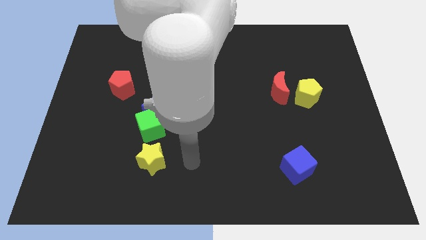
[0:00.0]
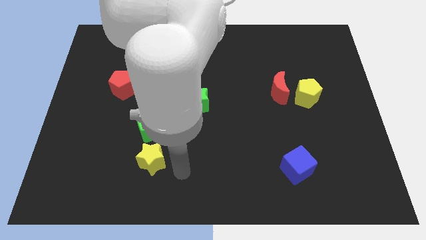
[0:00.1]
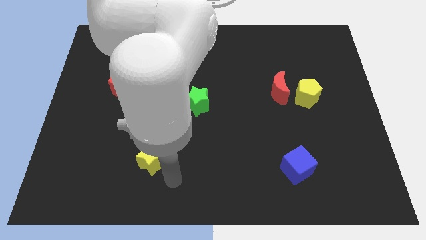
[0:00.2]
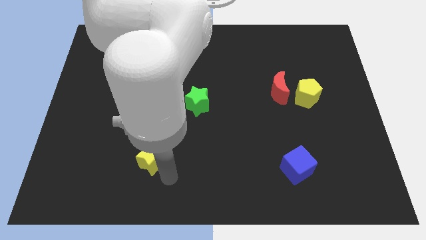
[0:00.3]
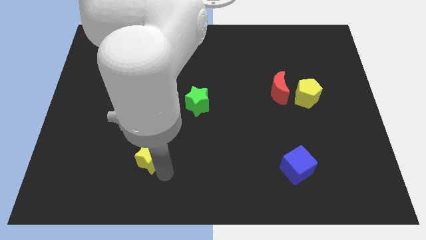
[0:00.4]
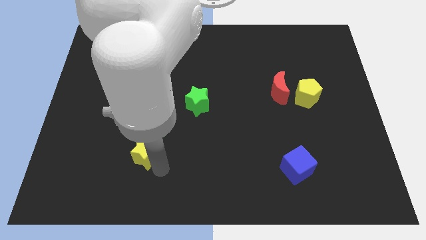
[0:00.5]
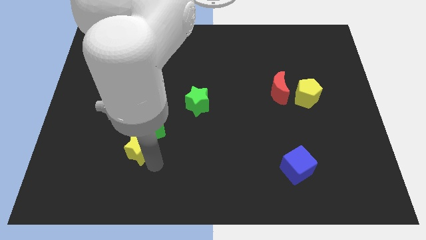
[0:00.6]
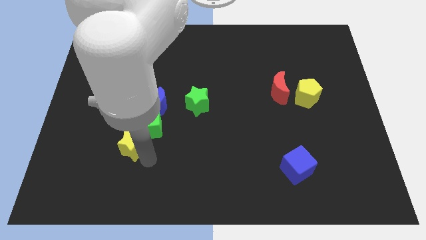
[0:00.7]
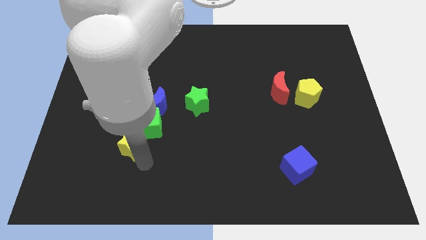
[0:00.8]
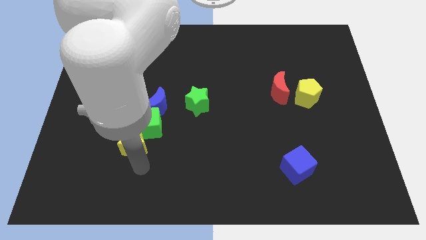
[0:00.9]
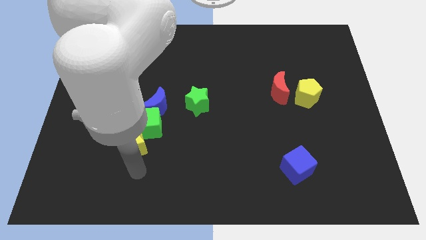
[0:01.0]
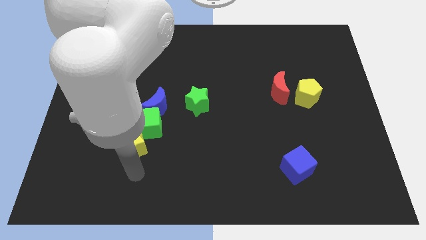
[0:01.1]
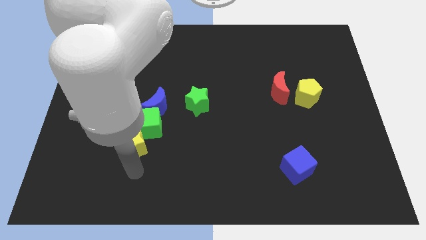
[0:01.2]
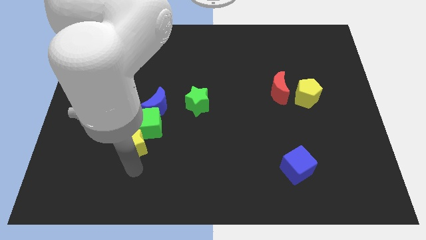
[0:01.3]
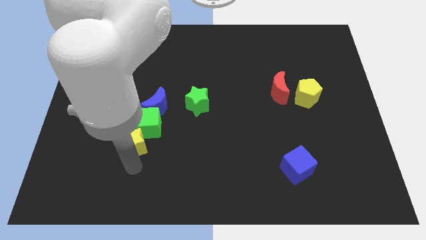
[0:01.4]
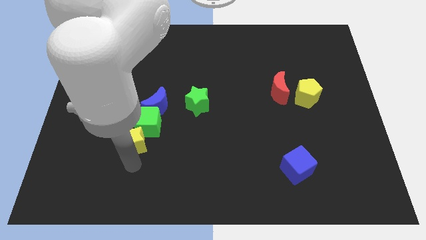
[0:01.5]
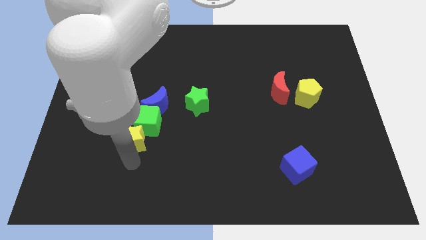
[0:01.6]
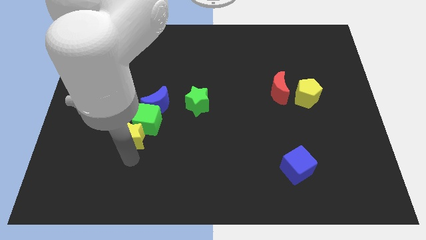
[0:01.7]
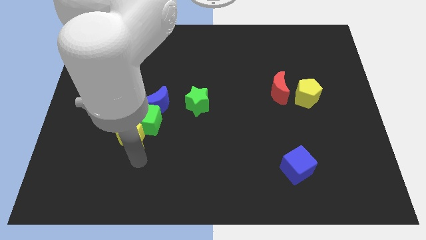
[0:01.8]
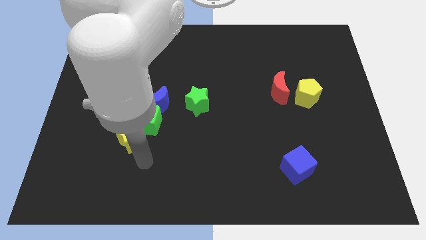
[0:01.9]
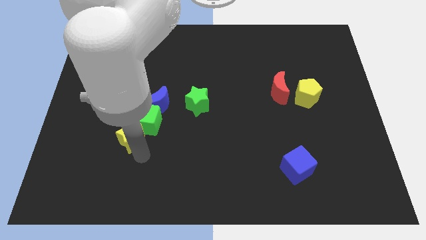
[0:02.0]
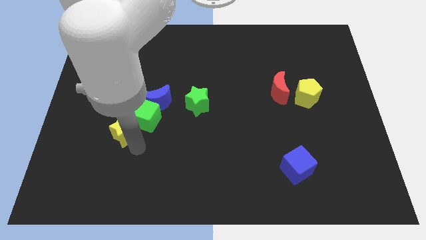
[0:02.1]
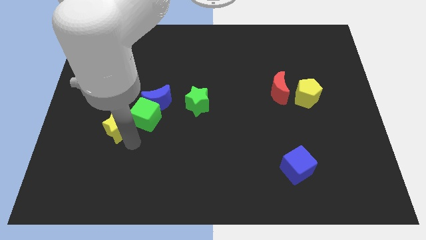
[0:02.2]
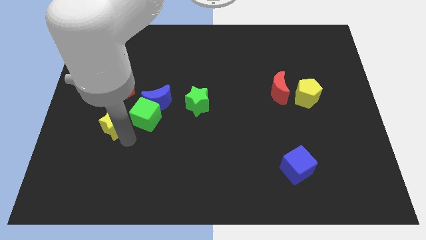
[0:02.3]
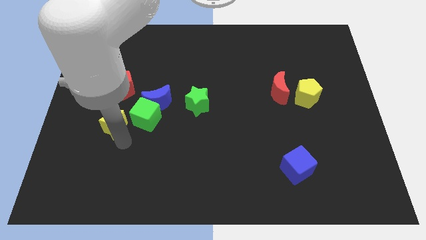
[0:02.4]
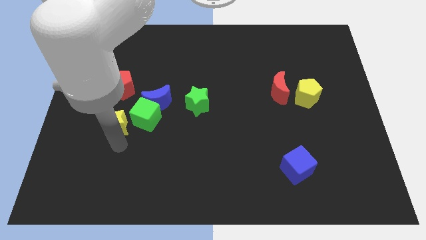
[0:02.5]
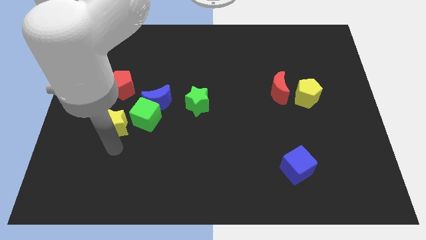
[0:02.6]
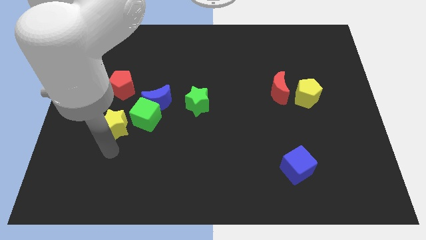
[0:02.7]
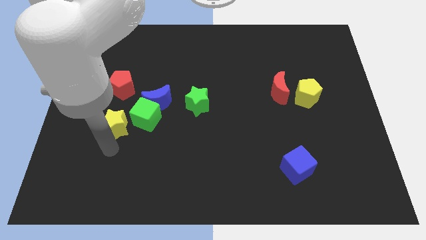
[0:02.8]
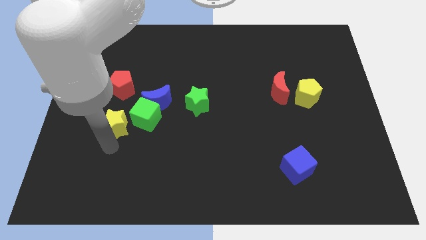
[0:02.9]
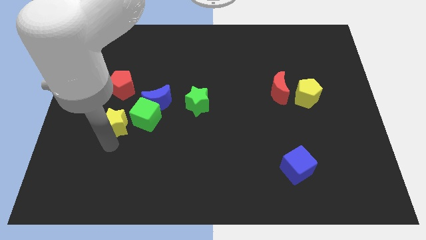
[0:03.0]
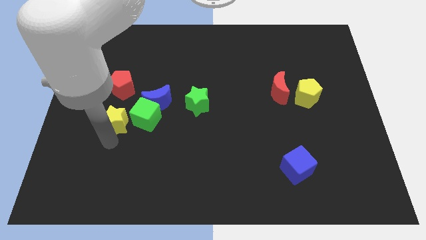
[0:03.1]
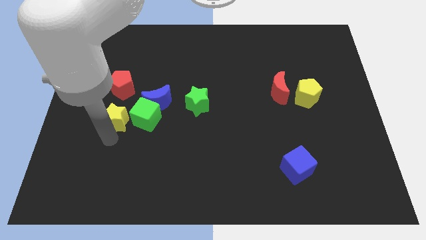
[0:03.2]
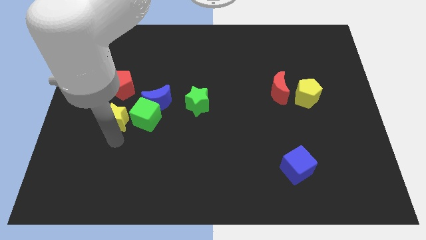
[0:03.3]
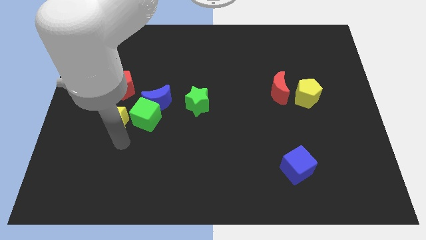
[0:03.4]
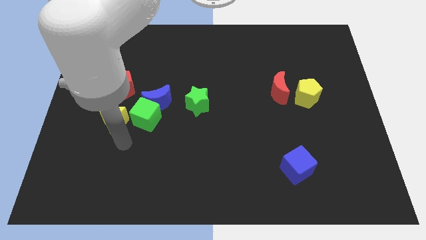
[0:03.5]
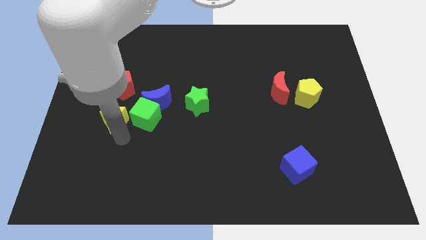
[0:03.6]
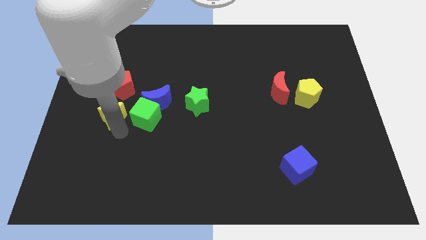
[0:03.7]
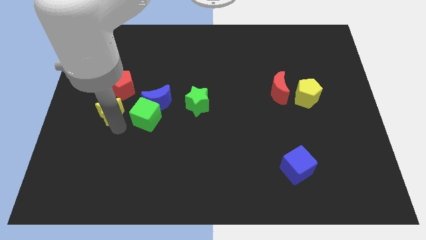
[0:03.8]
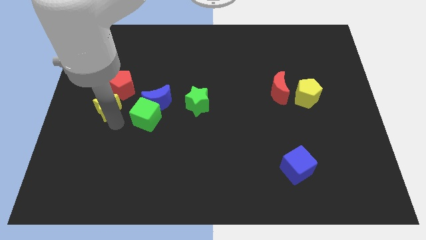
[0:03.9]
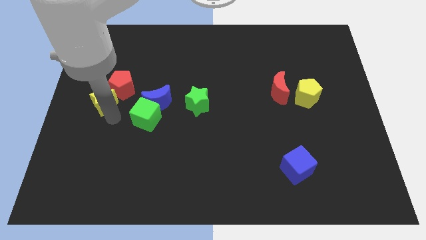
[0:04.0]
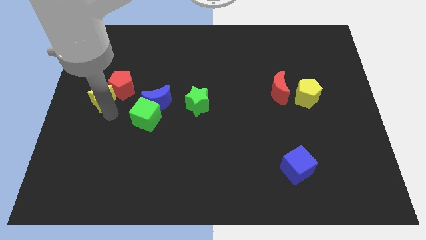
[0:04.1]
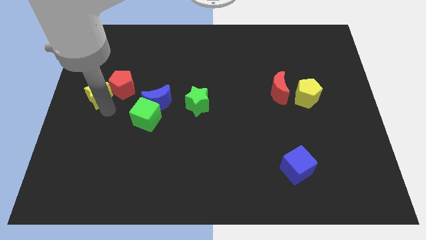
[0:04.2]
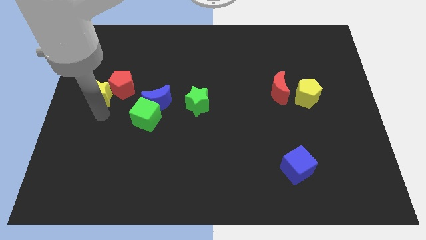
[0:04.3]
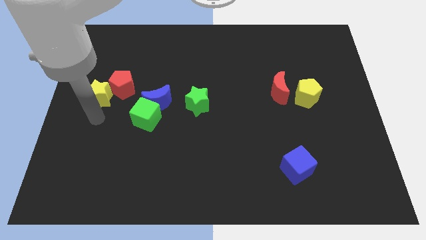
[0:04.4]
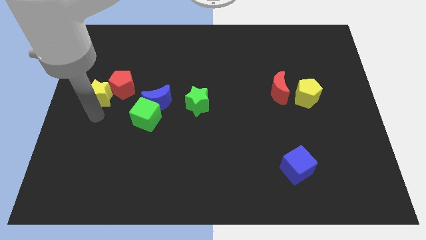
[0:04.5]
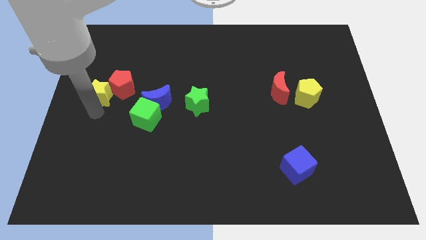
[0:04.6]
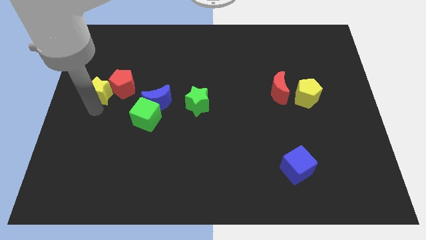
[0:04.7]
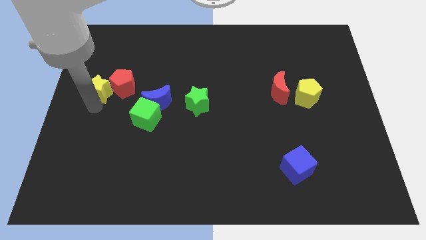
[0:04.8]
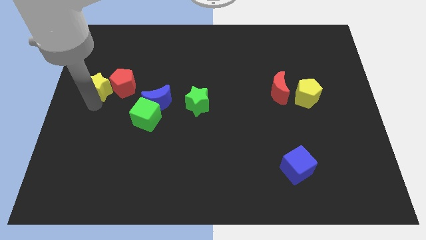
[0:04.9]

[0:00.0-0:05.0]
push the yellow star diagonally up and to the left of the red pentagon

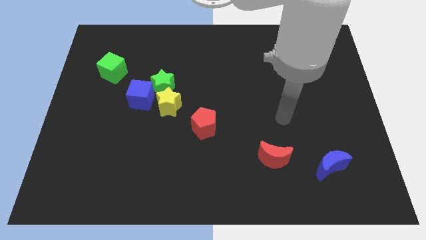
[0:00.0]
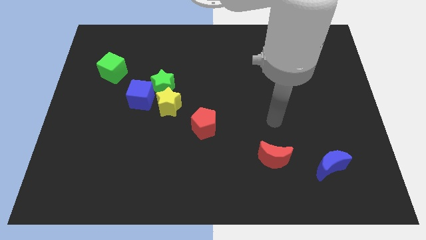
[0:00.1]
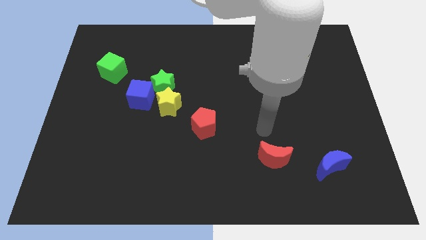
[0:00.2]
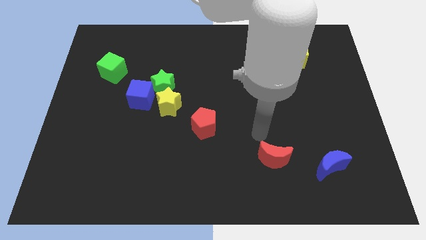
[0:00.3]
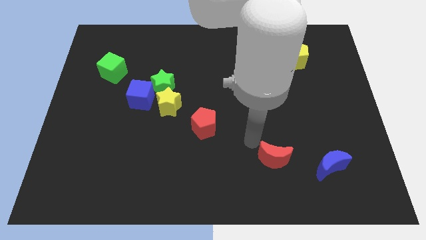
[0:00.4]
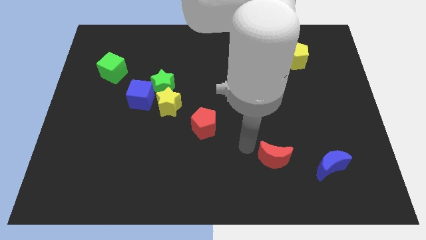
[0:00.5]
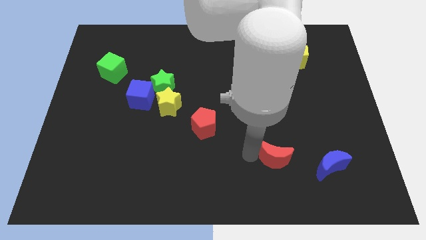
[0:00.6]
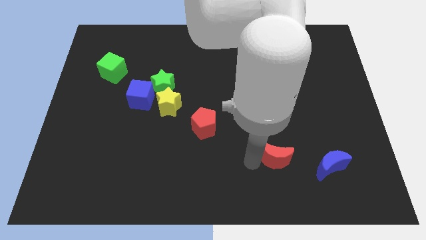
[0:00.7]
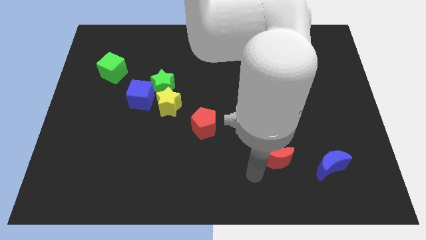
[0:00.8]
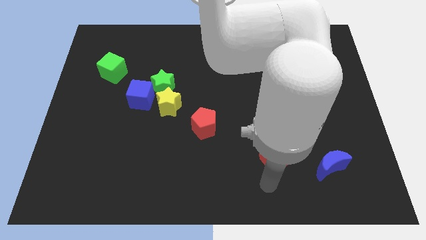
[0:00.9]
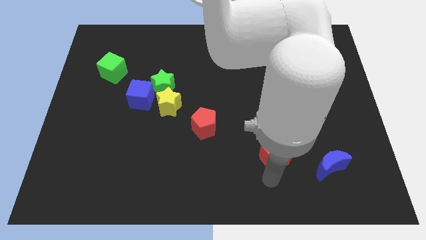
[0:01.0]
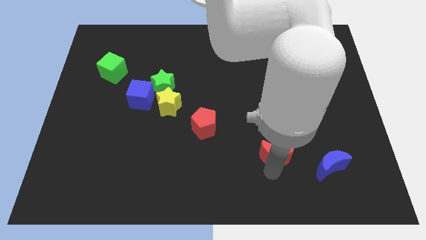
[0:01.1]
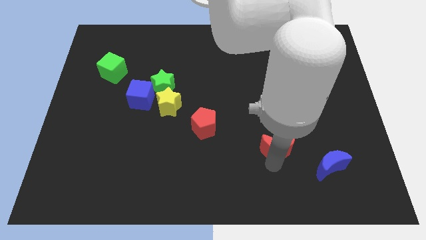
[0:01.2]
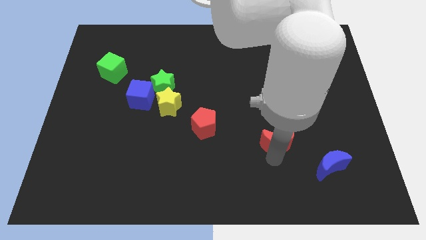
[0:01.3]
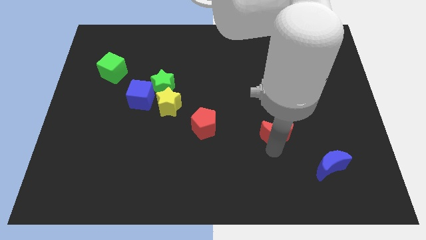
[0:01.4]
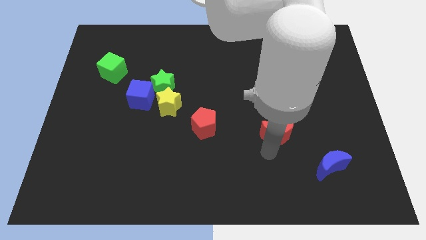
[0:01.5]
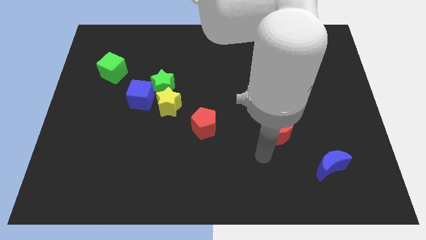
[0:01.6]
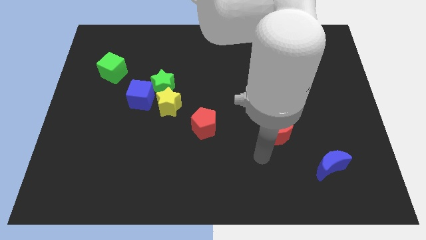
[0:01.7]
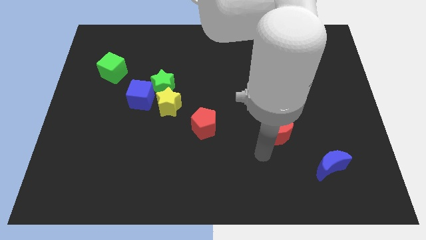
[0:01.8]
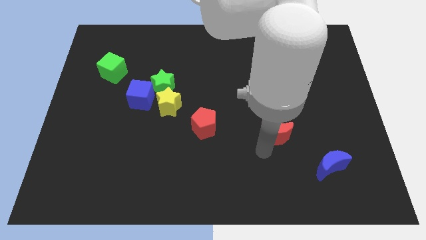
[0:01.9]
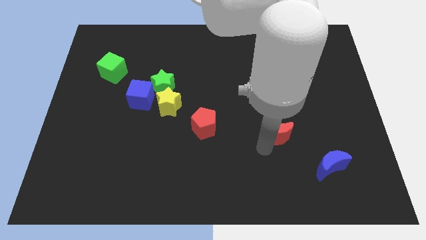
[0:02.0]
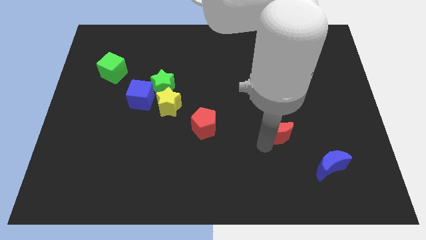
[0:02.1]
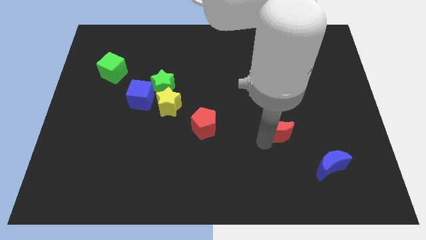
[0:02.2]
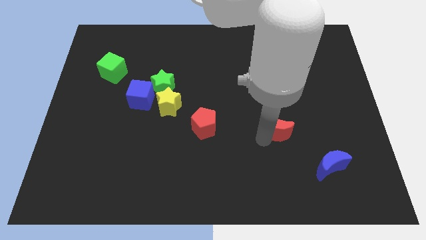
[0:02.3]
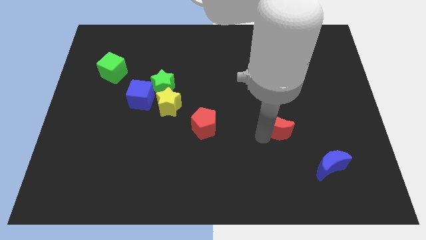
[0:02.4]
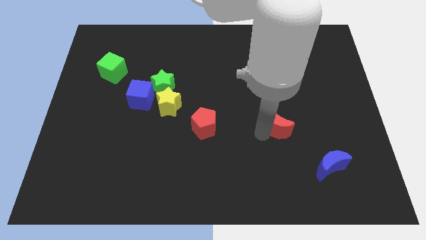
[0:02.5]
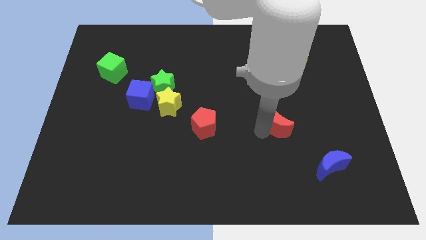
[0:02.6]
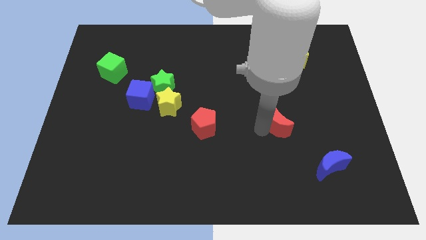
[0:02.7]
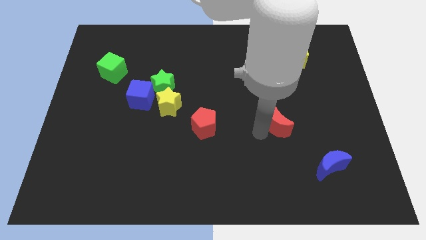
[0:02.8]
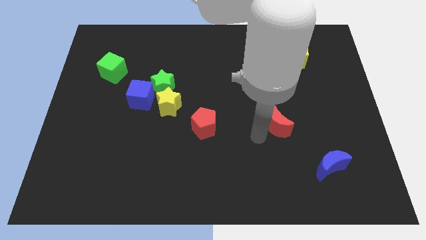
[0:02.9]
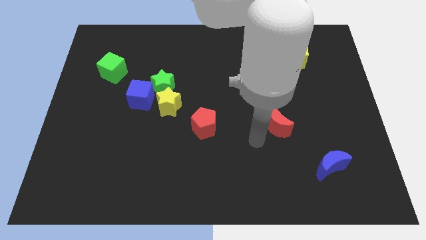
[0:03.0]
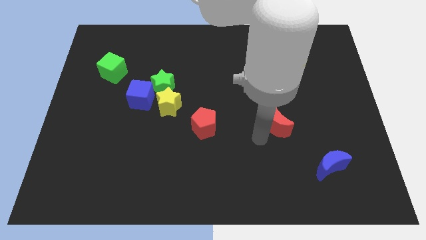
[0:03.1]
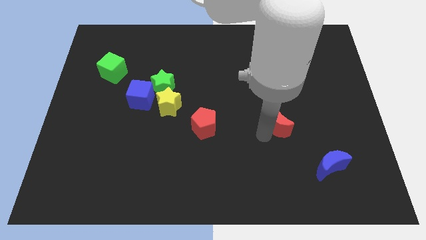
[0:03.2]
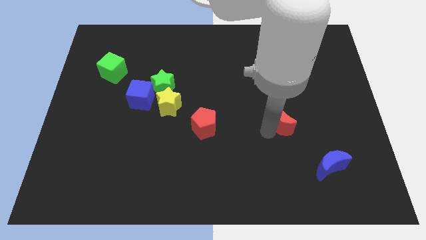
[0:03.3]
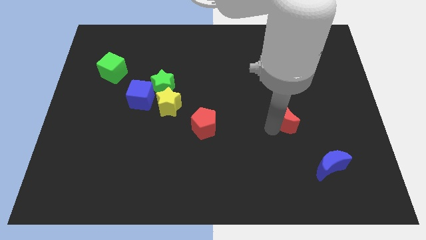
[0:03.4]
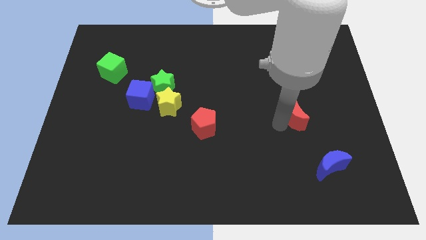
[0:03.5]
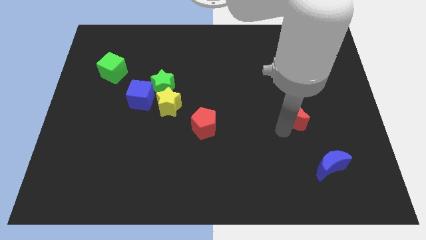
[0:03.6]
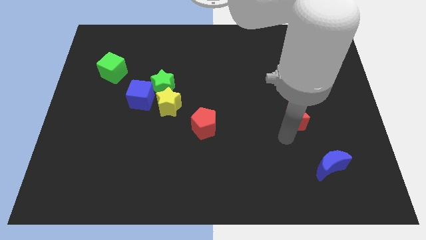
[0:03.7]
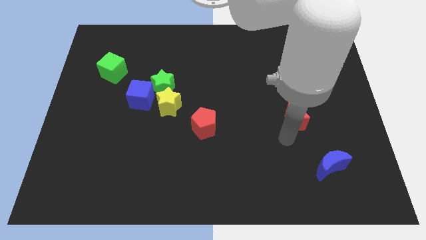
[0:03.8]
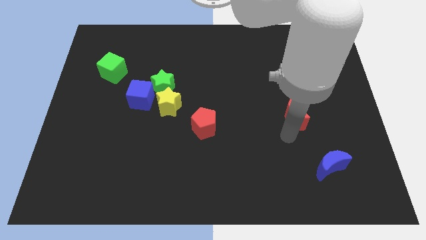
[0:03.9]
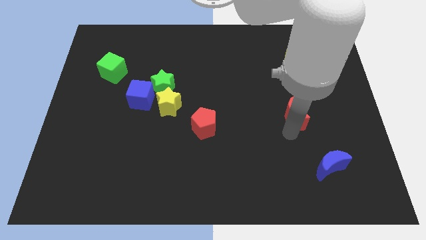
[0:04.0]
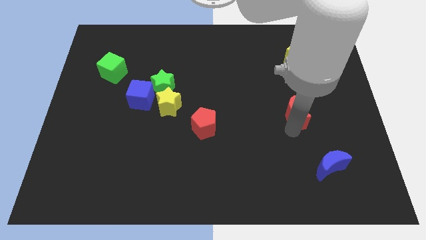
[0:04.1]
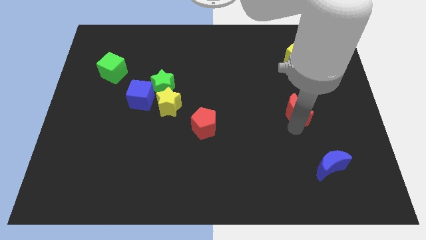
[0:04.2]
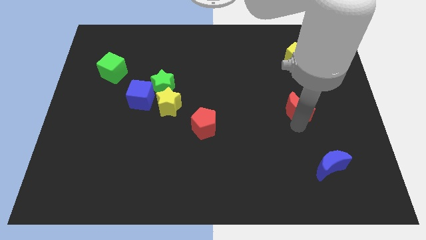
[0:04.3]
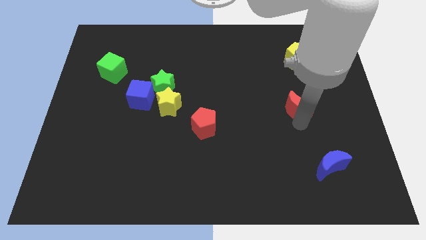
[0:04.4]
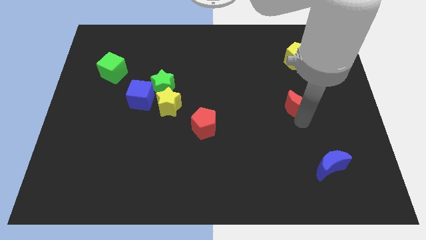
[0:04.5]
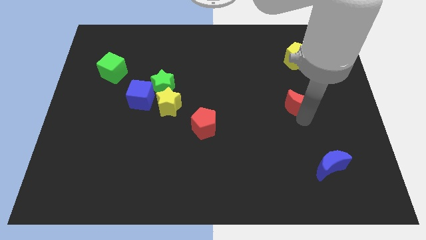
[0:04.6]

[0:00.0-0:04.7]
move the red moon to the bottom side of the yellow pentagon
